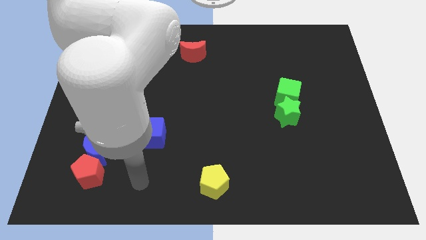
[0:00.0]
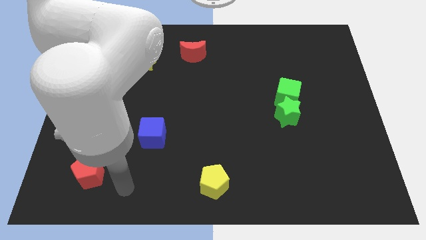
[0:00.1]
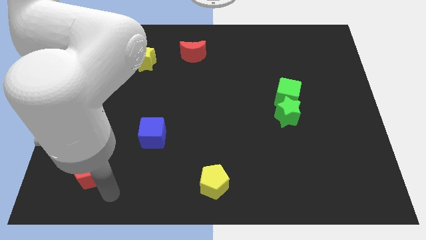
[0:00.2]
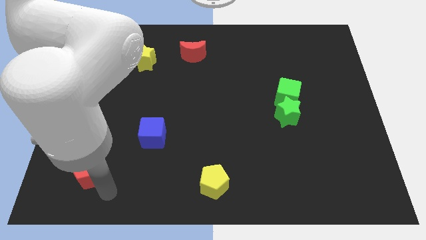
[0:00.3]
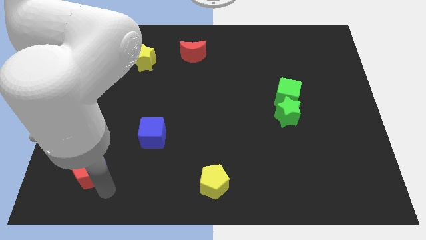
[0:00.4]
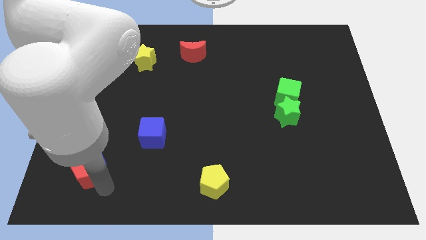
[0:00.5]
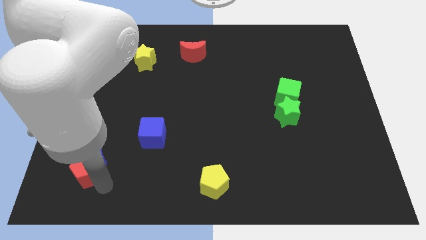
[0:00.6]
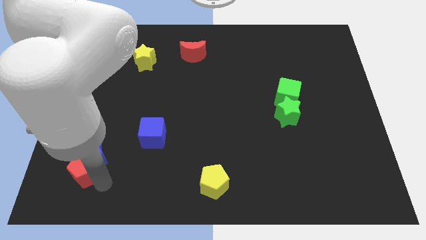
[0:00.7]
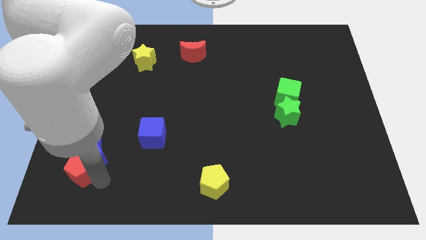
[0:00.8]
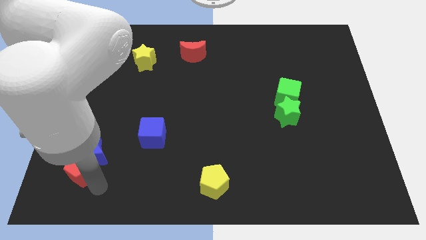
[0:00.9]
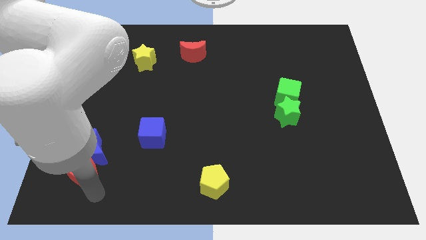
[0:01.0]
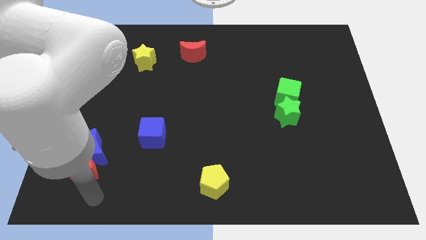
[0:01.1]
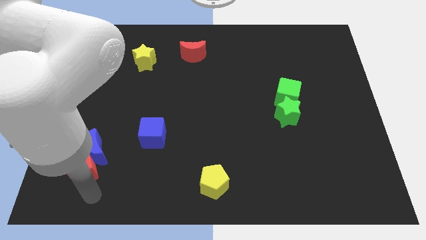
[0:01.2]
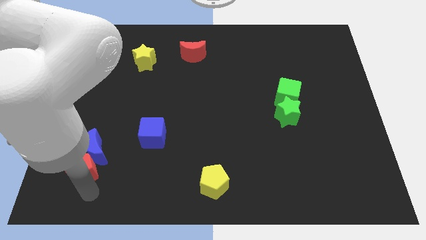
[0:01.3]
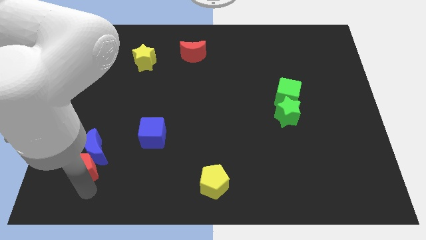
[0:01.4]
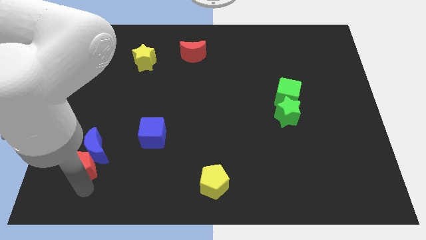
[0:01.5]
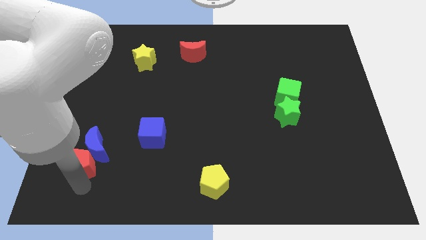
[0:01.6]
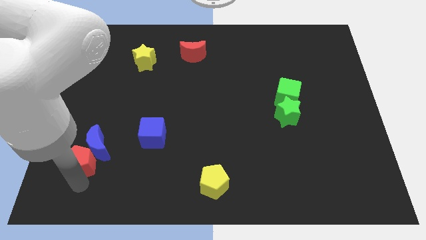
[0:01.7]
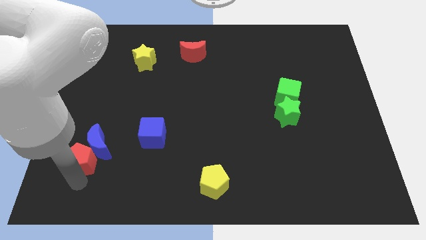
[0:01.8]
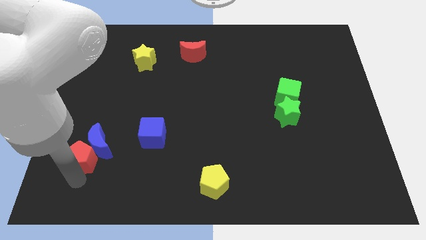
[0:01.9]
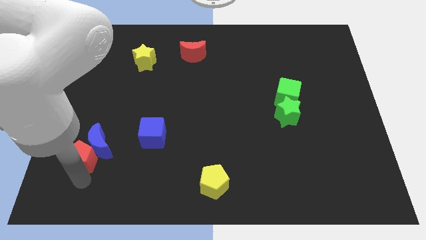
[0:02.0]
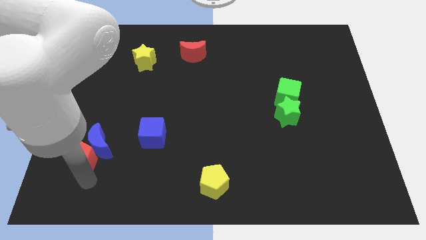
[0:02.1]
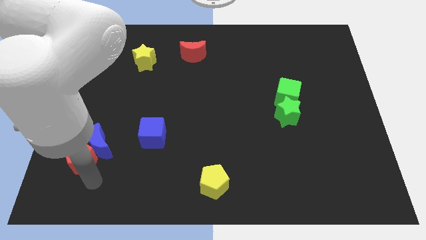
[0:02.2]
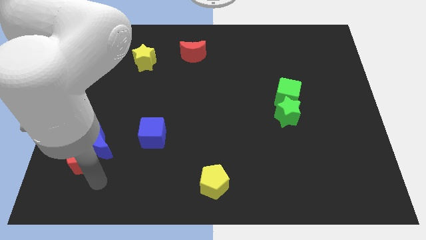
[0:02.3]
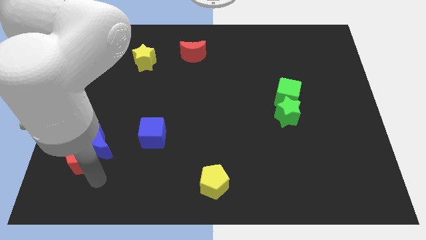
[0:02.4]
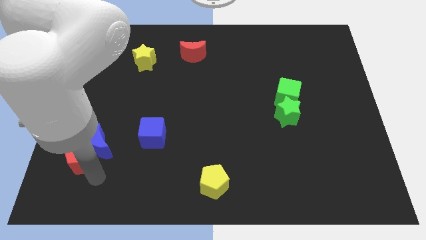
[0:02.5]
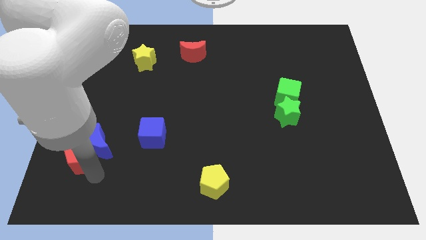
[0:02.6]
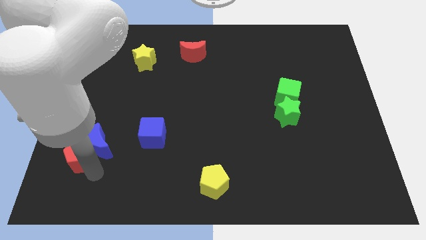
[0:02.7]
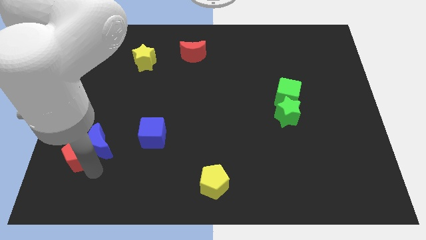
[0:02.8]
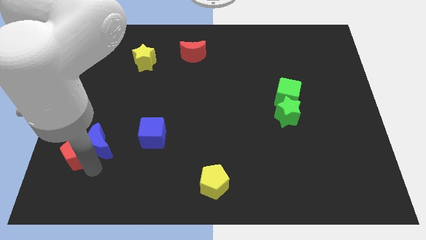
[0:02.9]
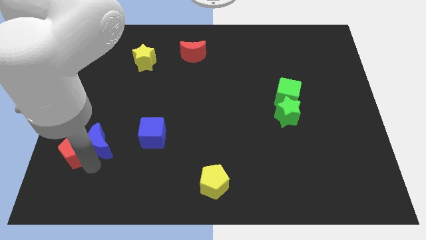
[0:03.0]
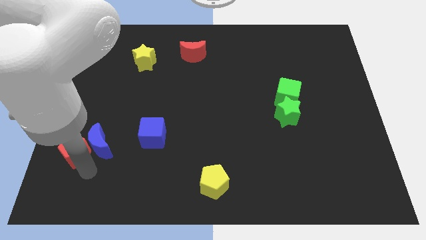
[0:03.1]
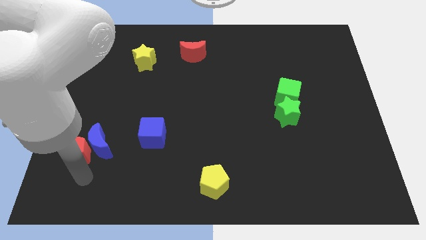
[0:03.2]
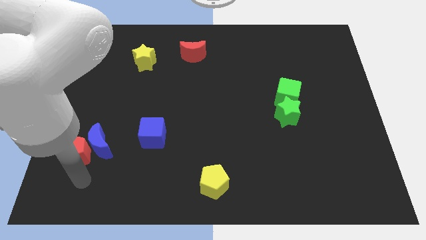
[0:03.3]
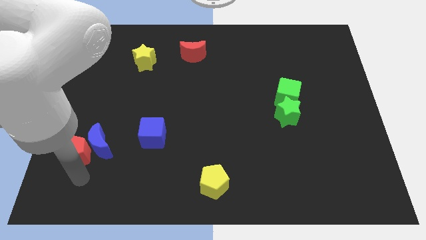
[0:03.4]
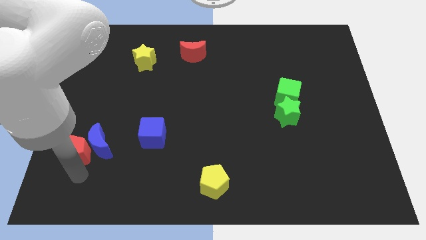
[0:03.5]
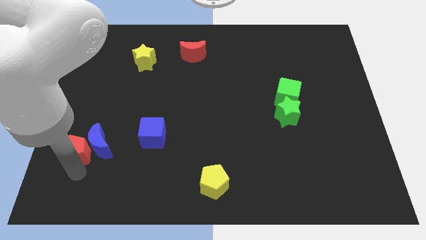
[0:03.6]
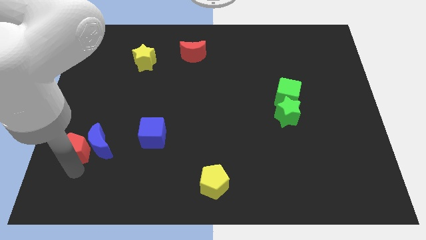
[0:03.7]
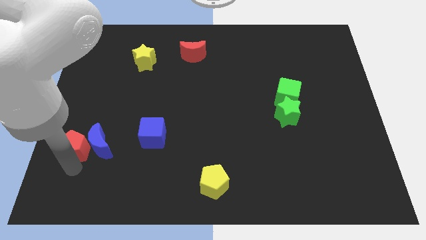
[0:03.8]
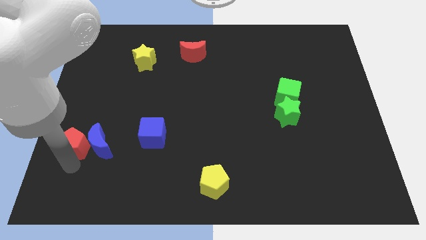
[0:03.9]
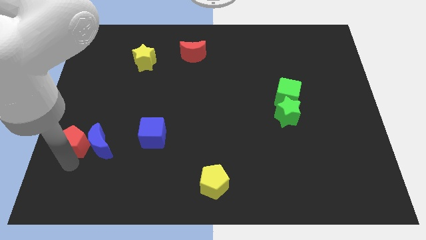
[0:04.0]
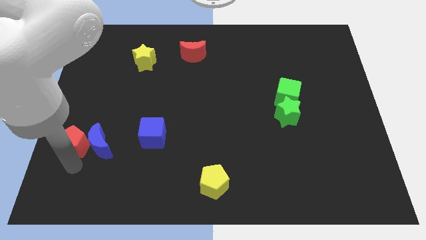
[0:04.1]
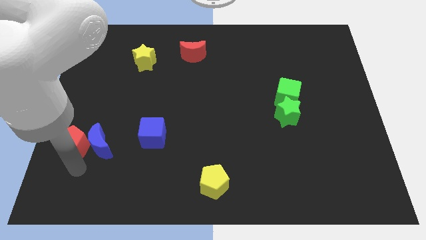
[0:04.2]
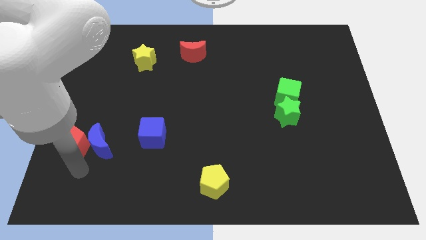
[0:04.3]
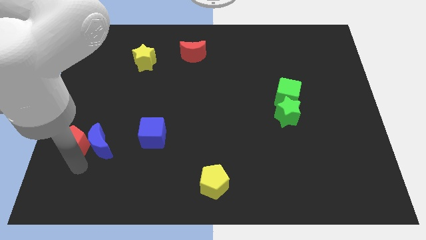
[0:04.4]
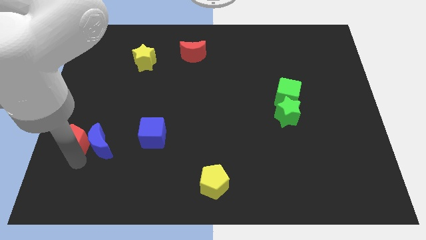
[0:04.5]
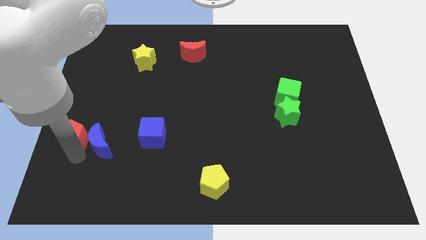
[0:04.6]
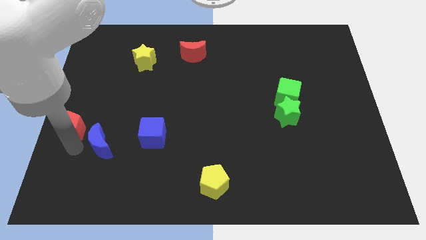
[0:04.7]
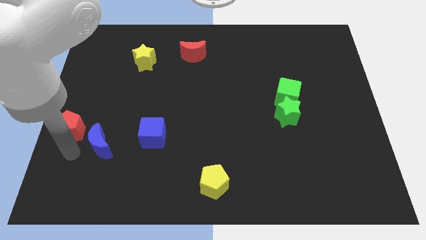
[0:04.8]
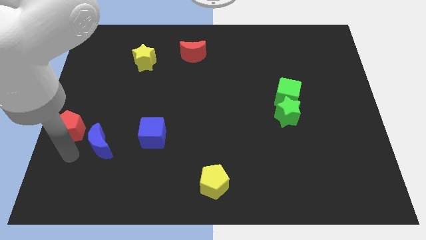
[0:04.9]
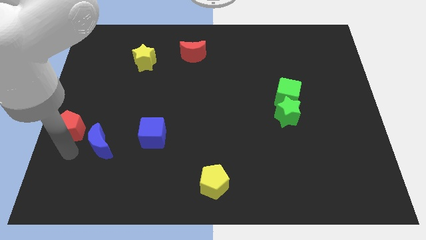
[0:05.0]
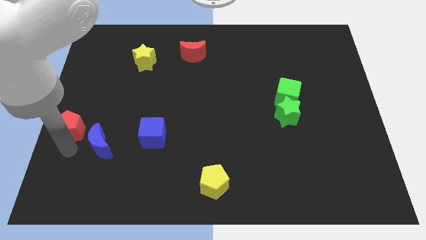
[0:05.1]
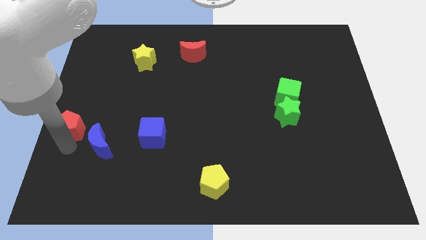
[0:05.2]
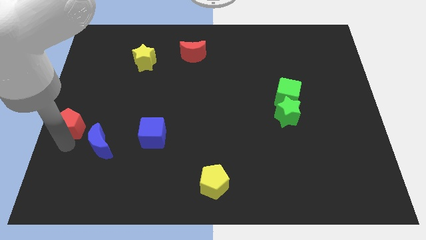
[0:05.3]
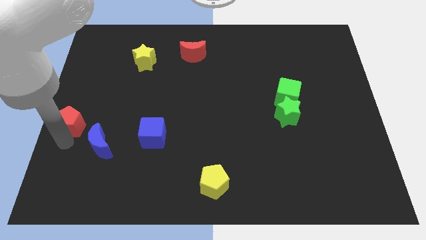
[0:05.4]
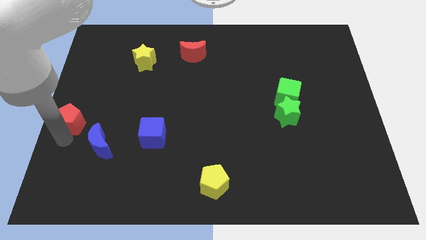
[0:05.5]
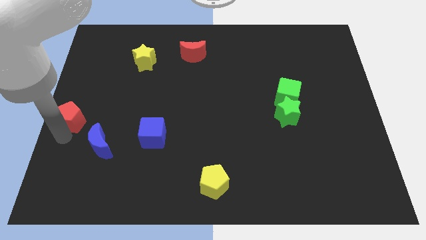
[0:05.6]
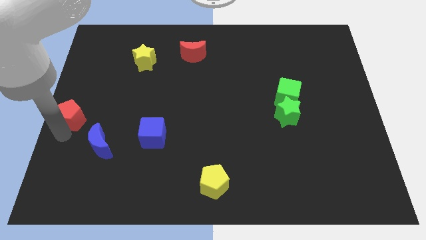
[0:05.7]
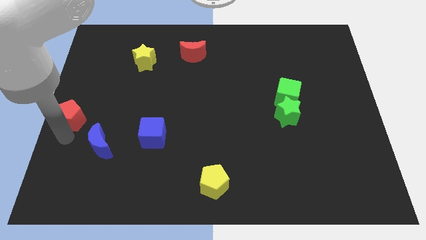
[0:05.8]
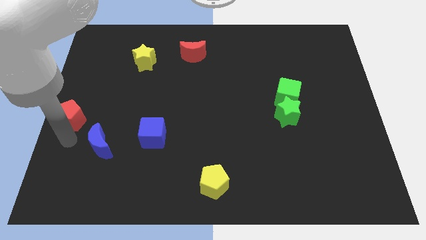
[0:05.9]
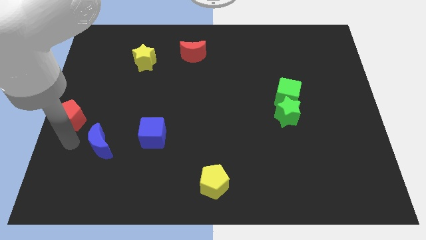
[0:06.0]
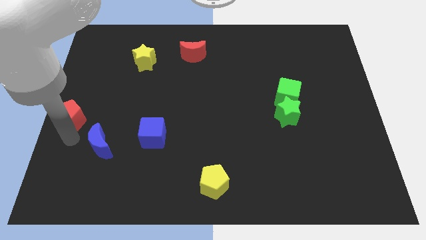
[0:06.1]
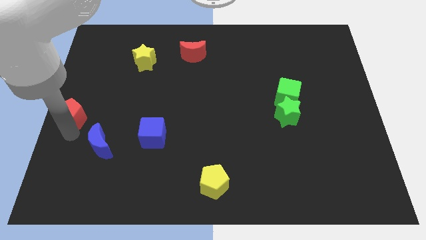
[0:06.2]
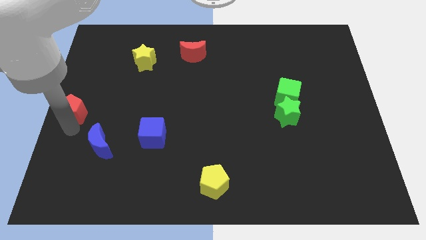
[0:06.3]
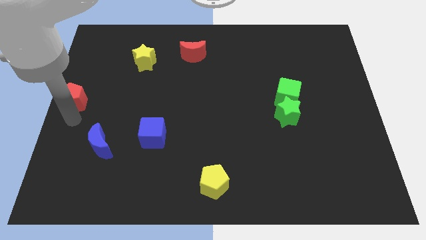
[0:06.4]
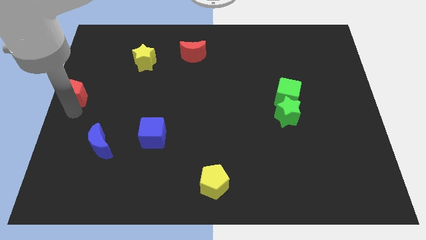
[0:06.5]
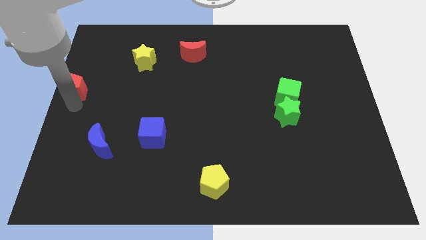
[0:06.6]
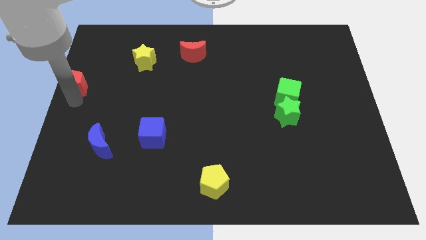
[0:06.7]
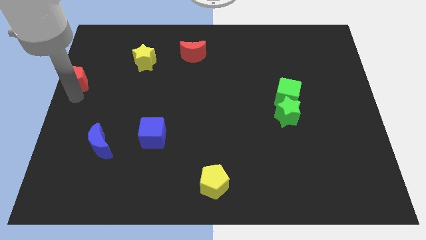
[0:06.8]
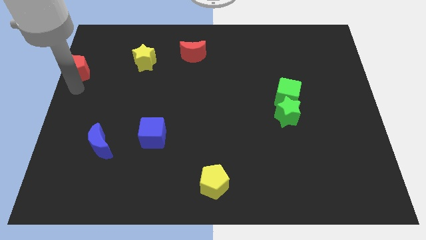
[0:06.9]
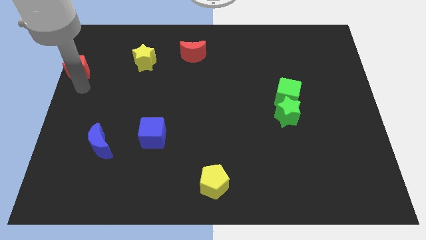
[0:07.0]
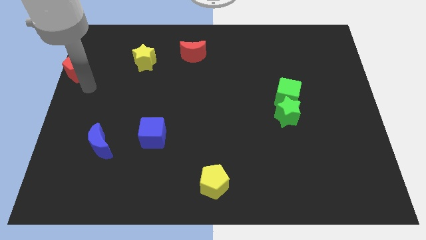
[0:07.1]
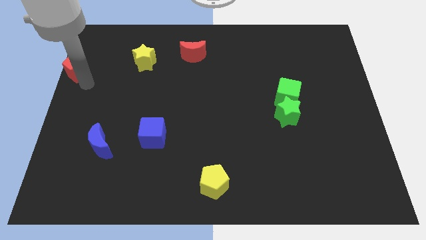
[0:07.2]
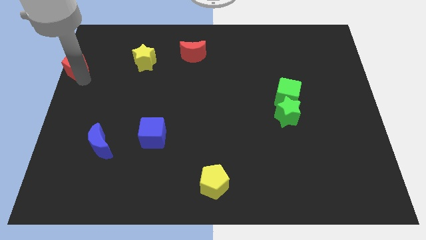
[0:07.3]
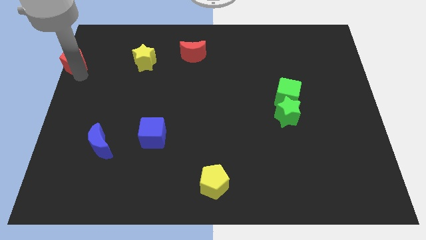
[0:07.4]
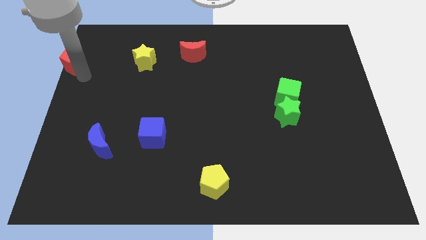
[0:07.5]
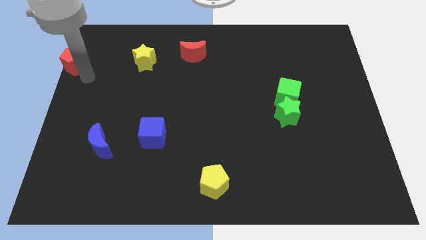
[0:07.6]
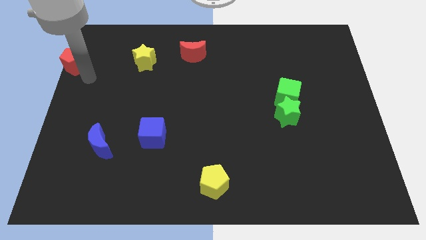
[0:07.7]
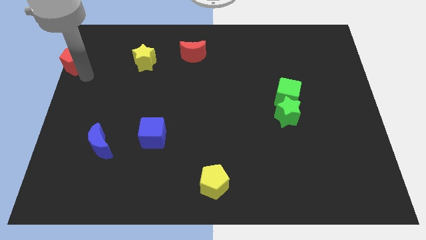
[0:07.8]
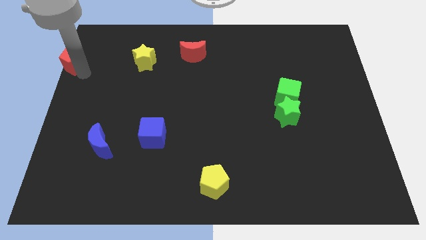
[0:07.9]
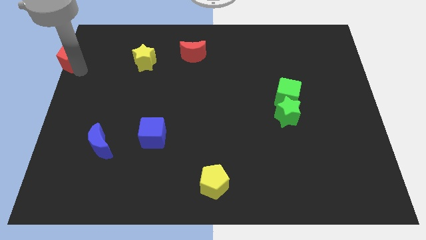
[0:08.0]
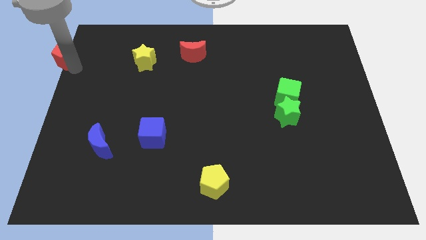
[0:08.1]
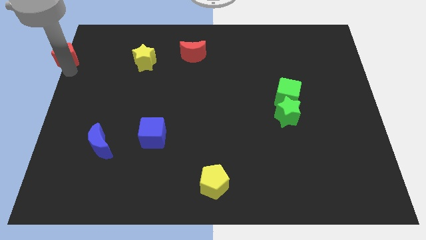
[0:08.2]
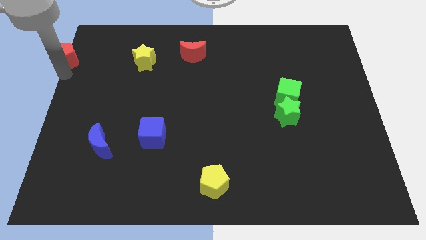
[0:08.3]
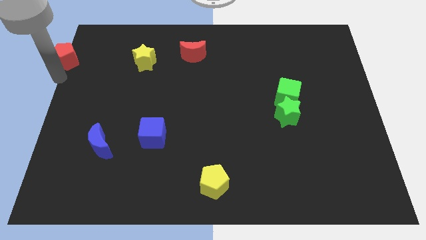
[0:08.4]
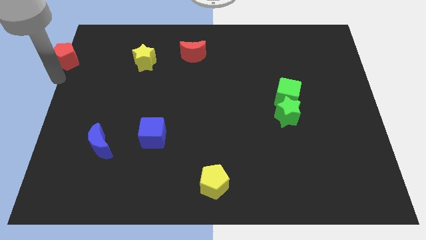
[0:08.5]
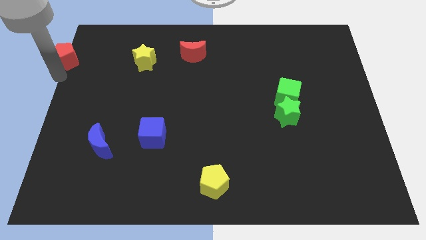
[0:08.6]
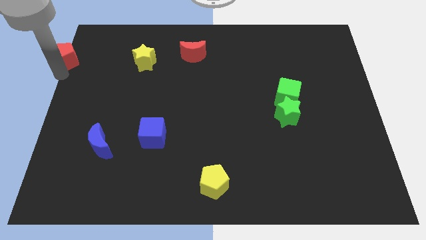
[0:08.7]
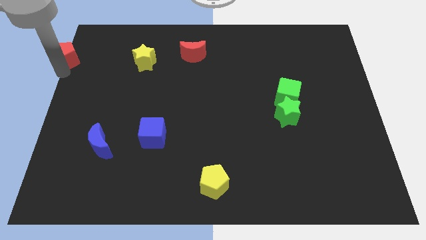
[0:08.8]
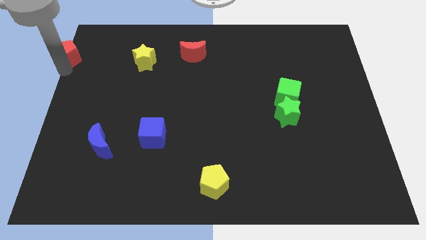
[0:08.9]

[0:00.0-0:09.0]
slide the red pentagon to the top left of the board
